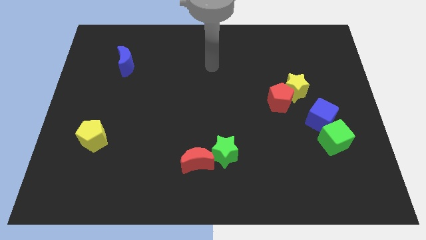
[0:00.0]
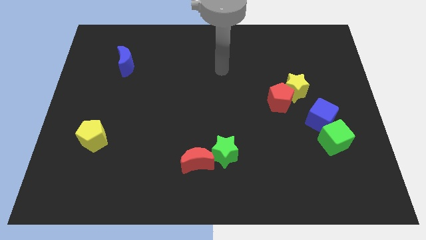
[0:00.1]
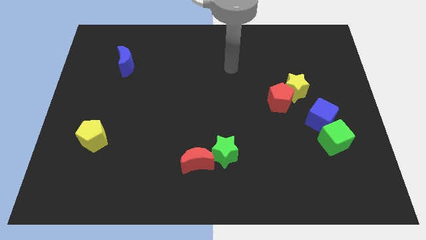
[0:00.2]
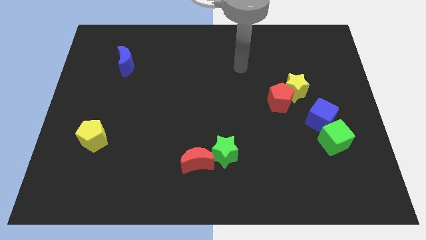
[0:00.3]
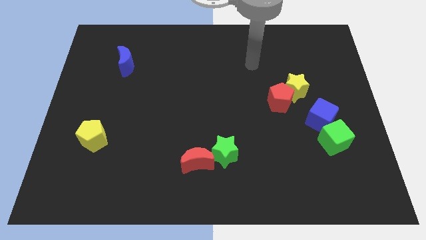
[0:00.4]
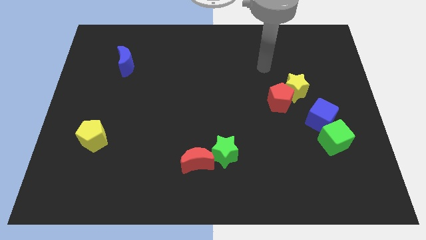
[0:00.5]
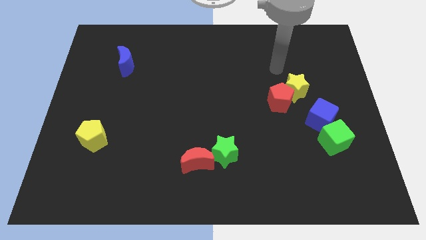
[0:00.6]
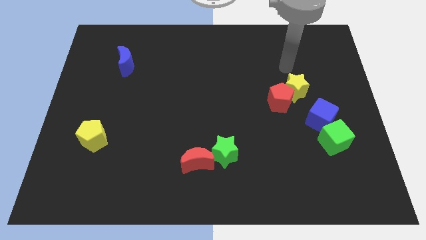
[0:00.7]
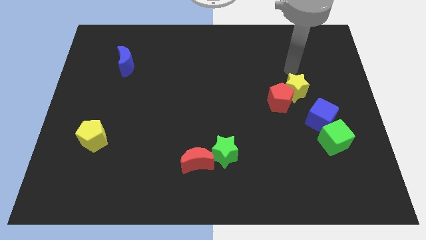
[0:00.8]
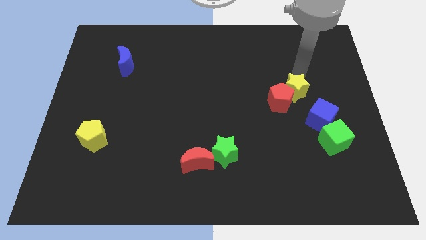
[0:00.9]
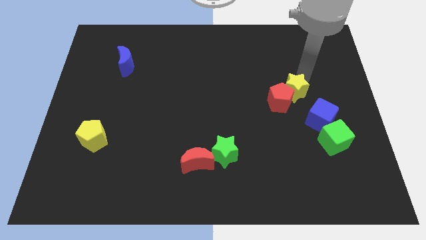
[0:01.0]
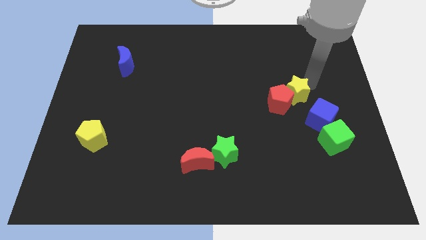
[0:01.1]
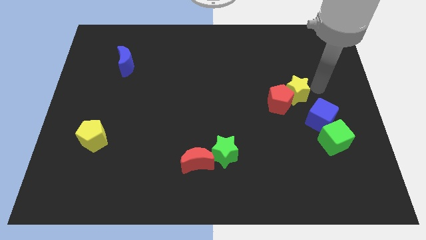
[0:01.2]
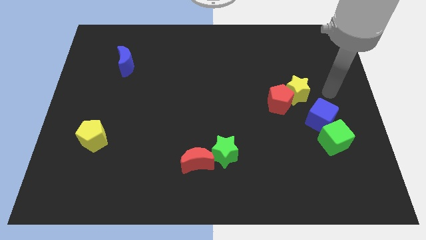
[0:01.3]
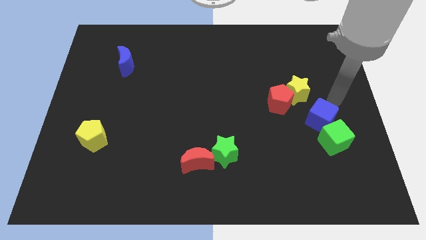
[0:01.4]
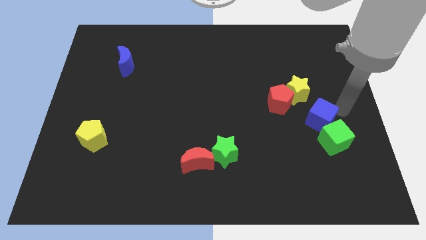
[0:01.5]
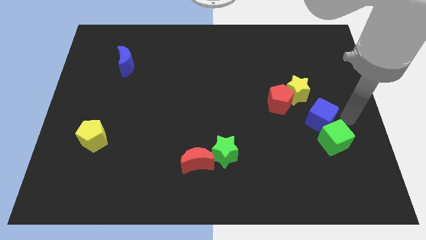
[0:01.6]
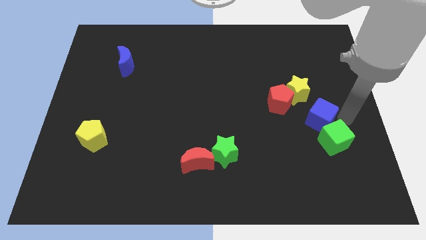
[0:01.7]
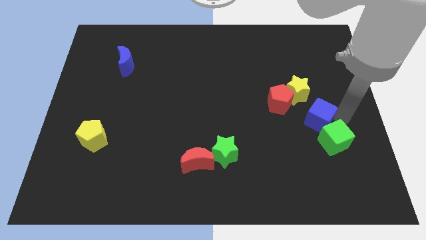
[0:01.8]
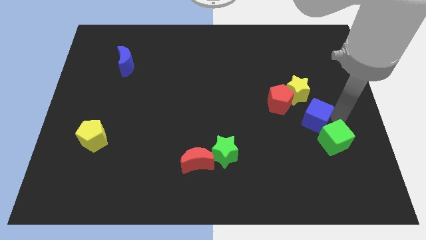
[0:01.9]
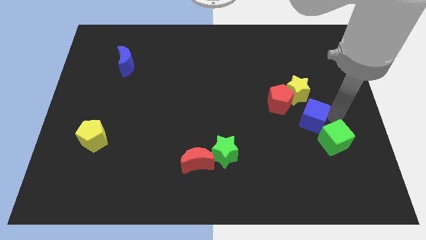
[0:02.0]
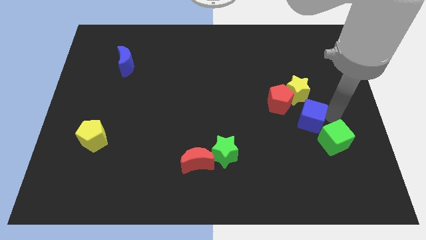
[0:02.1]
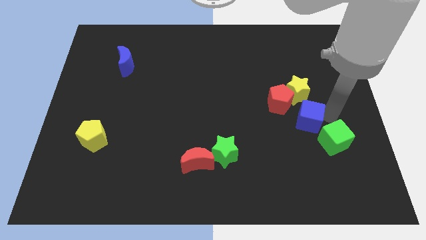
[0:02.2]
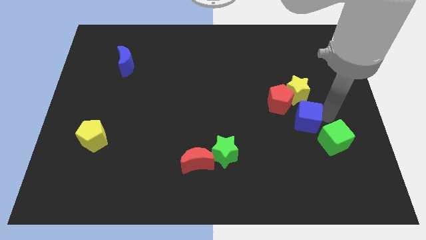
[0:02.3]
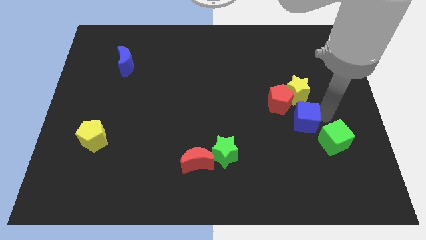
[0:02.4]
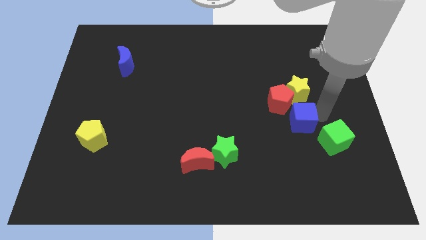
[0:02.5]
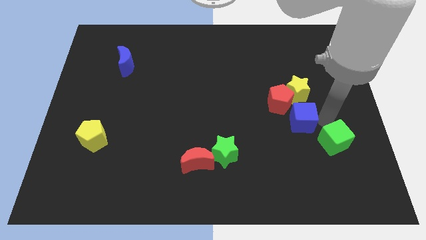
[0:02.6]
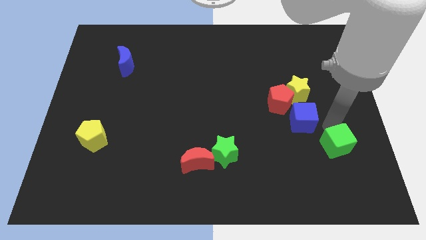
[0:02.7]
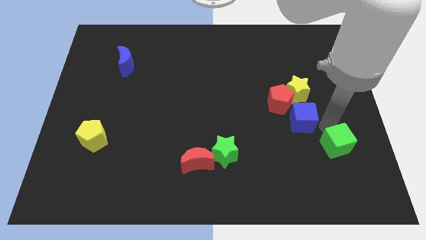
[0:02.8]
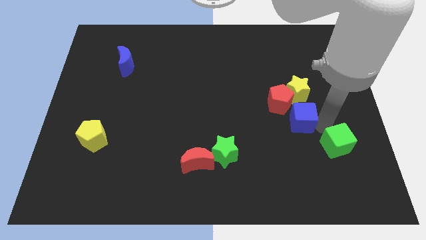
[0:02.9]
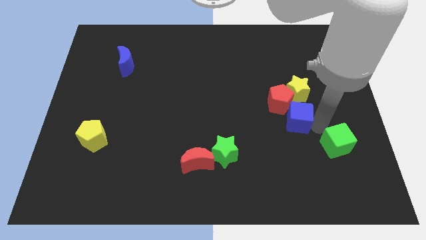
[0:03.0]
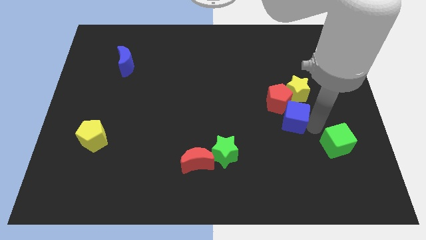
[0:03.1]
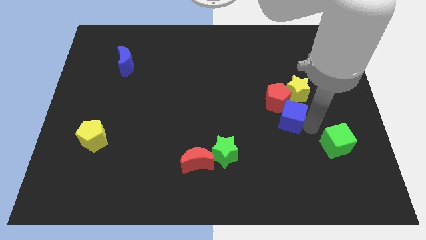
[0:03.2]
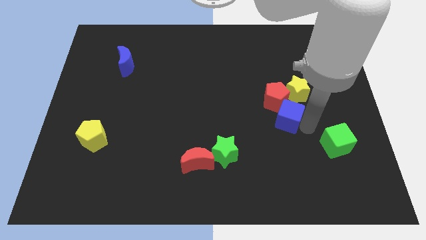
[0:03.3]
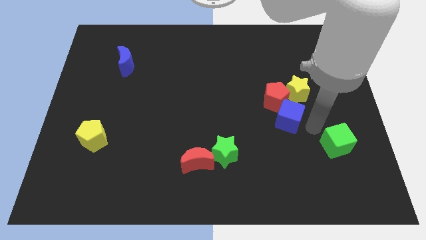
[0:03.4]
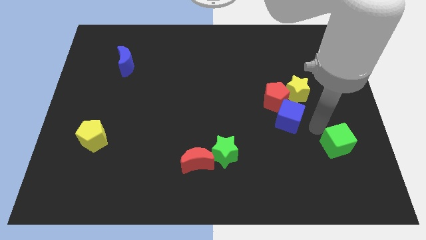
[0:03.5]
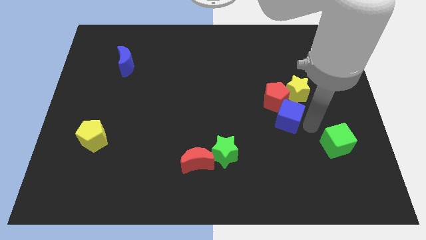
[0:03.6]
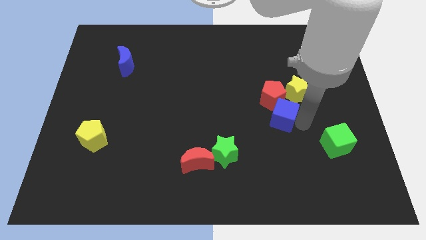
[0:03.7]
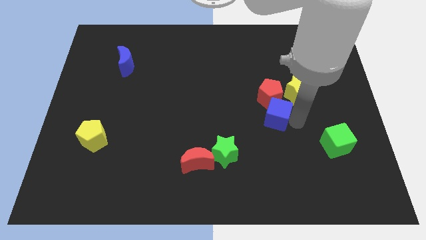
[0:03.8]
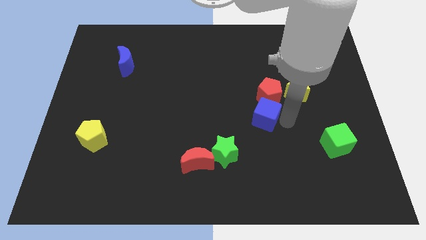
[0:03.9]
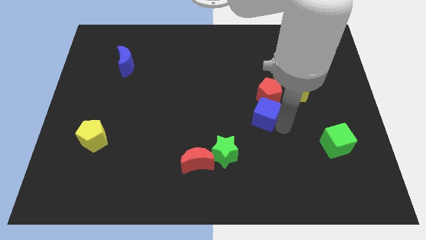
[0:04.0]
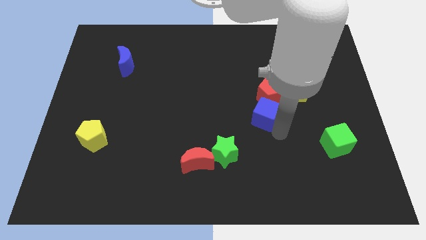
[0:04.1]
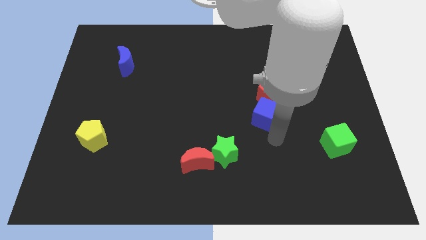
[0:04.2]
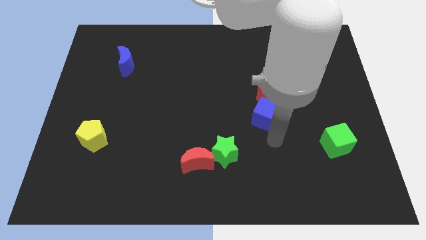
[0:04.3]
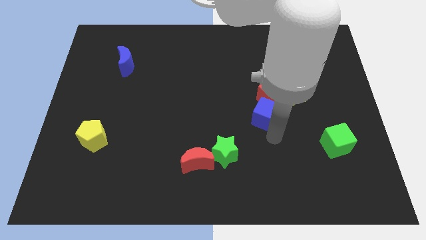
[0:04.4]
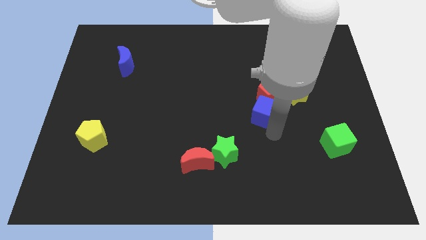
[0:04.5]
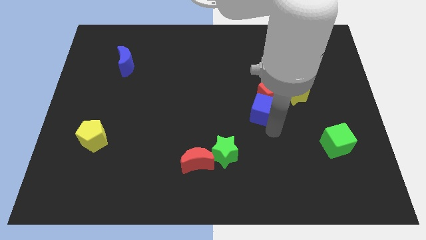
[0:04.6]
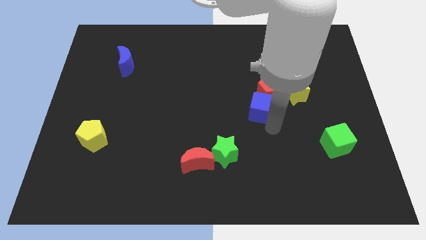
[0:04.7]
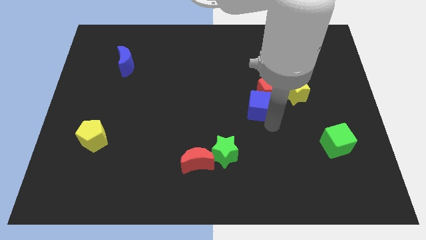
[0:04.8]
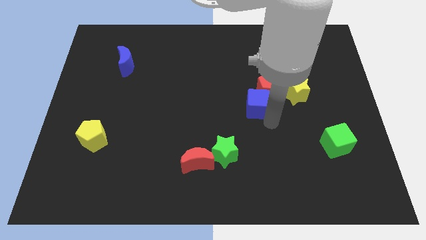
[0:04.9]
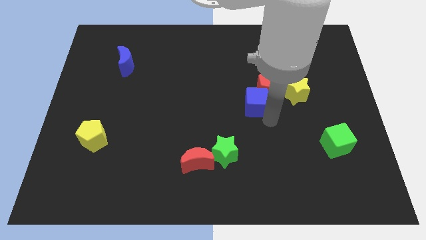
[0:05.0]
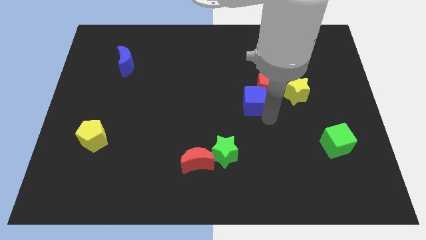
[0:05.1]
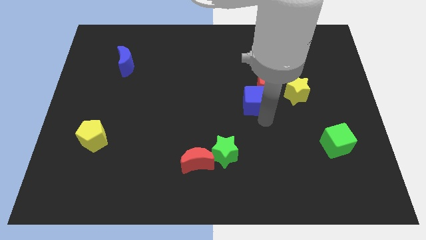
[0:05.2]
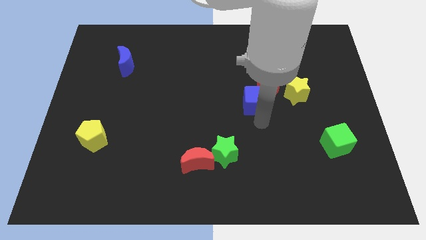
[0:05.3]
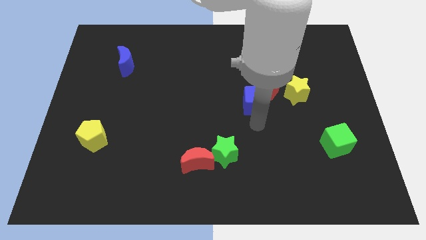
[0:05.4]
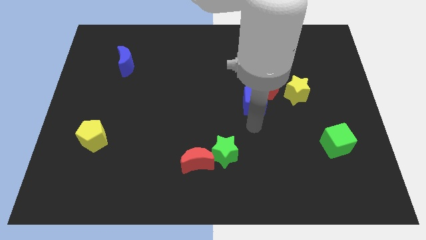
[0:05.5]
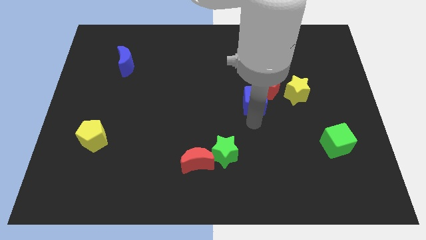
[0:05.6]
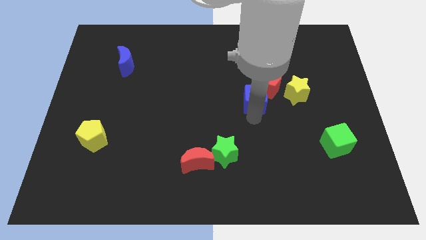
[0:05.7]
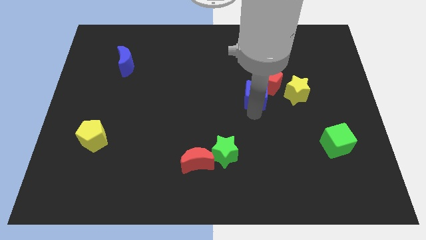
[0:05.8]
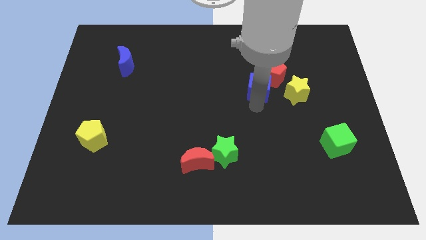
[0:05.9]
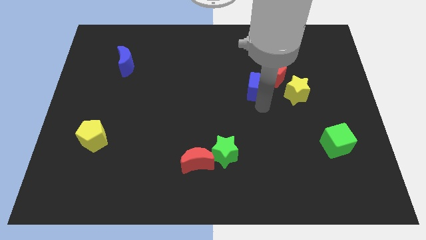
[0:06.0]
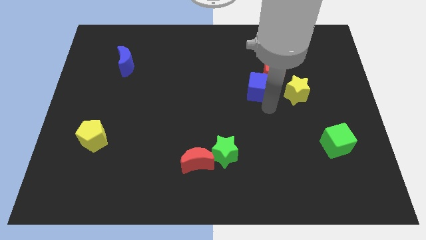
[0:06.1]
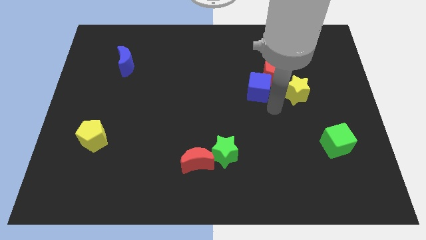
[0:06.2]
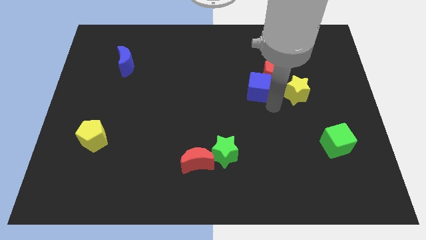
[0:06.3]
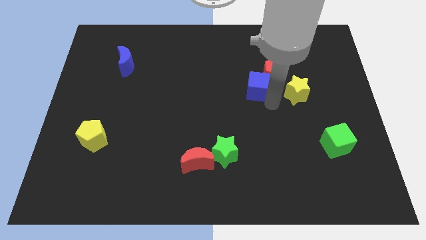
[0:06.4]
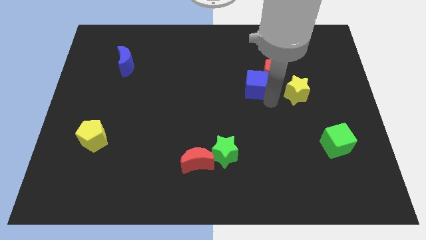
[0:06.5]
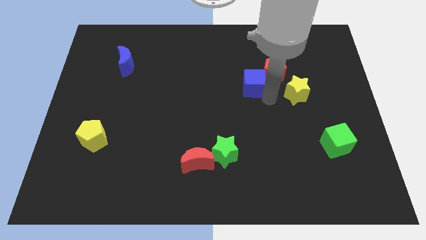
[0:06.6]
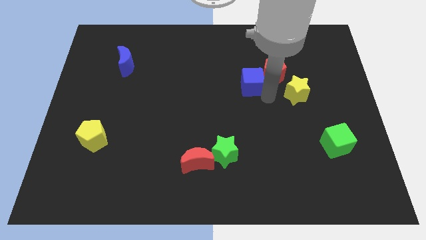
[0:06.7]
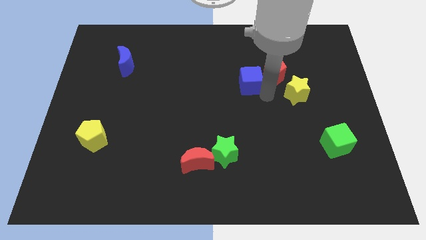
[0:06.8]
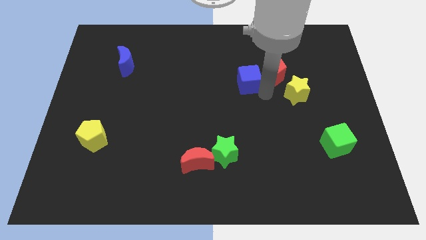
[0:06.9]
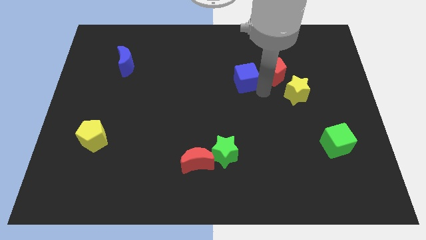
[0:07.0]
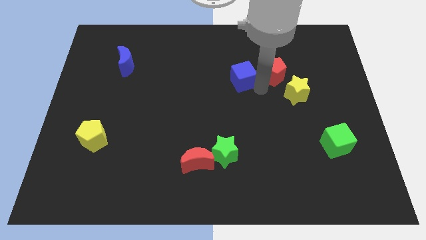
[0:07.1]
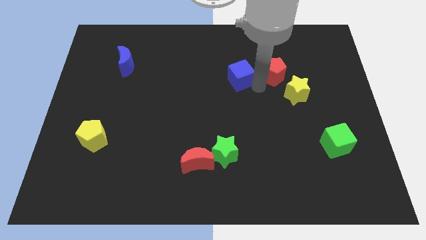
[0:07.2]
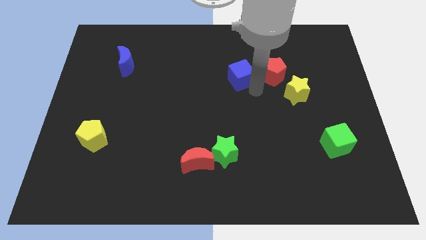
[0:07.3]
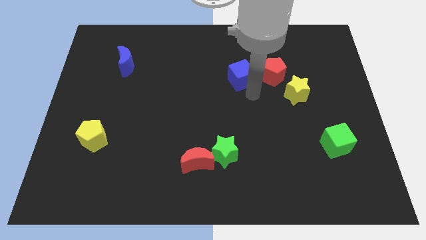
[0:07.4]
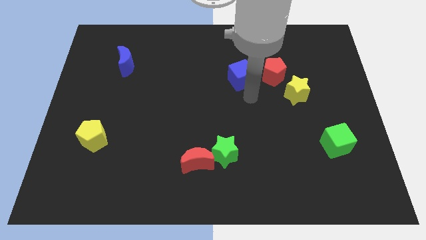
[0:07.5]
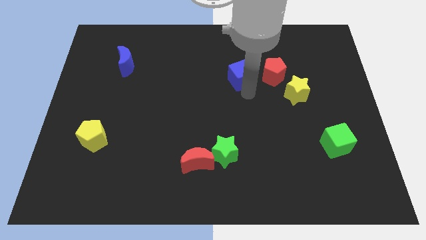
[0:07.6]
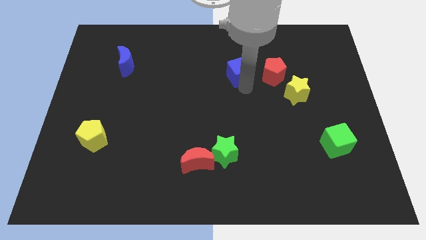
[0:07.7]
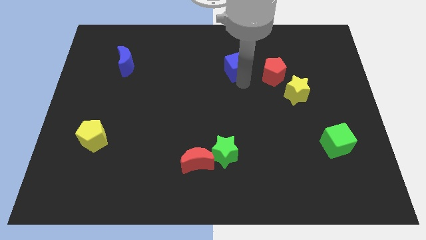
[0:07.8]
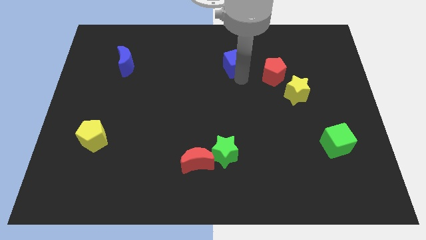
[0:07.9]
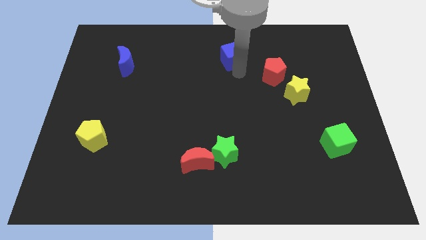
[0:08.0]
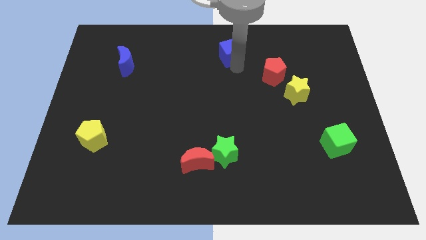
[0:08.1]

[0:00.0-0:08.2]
put the blue cube to the top
